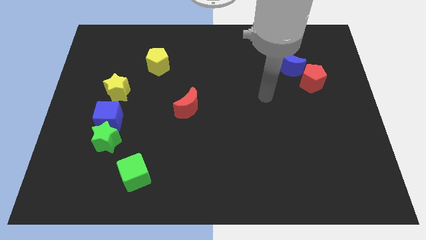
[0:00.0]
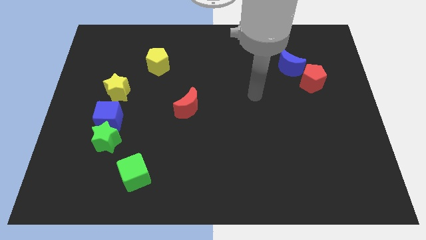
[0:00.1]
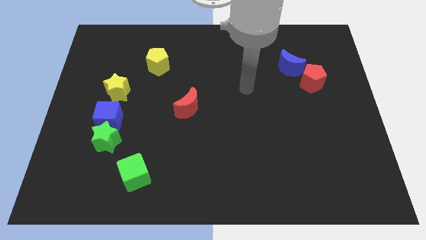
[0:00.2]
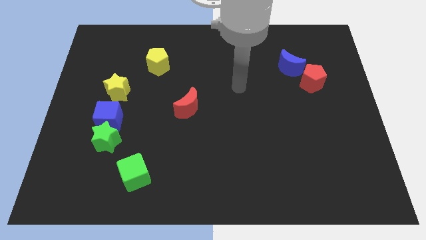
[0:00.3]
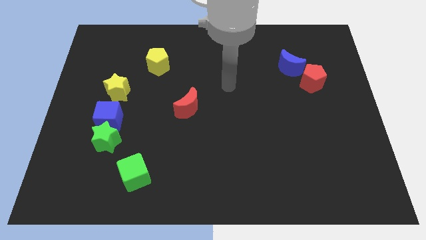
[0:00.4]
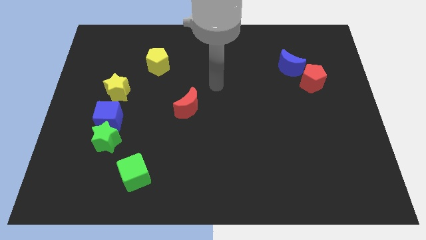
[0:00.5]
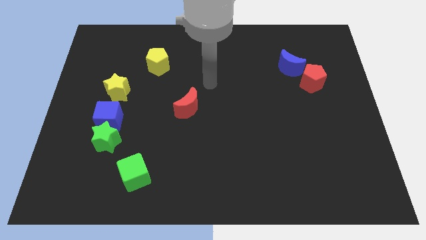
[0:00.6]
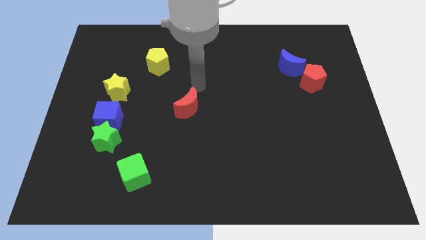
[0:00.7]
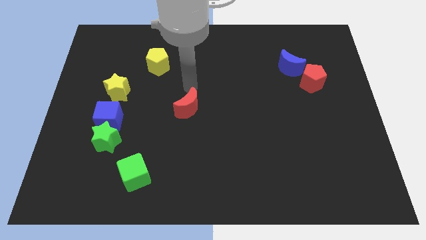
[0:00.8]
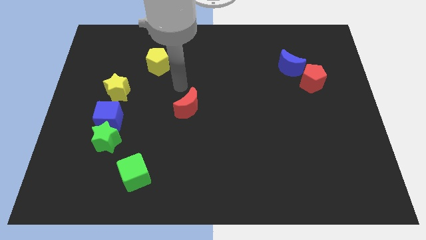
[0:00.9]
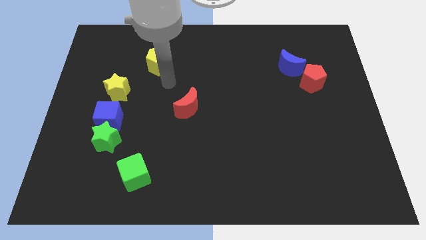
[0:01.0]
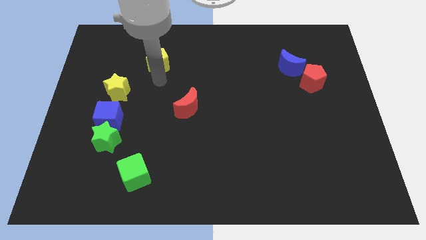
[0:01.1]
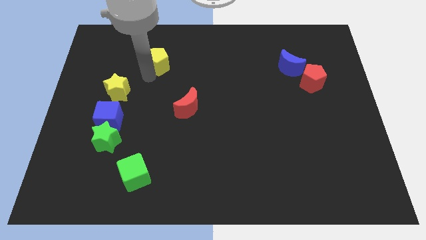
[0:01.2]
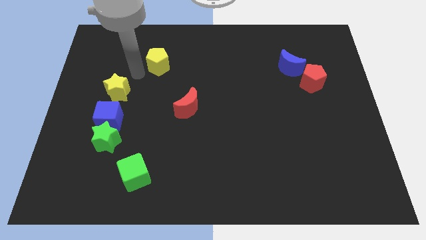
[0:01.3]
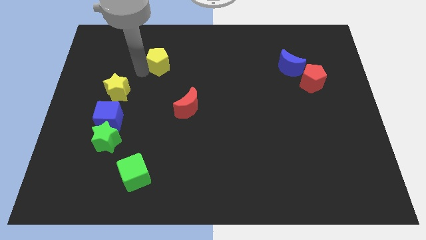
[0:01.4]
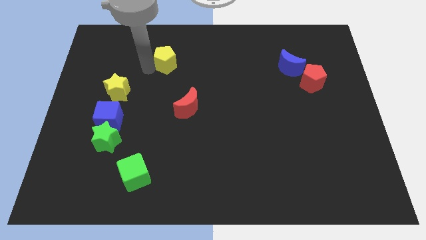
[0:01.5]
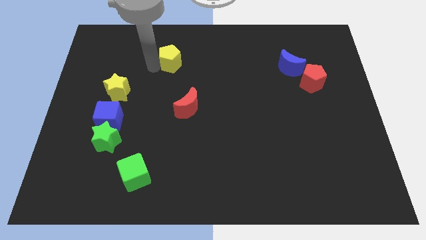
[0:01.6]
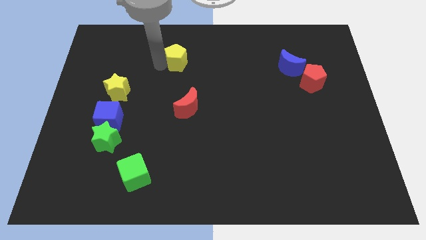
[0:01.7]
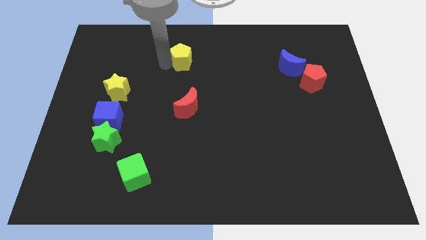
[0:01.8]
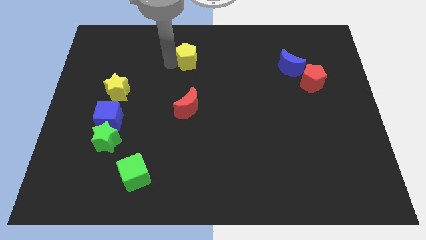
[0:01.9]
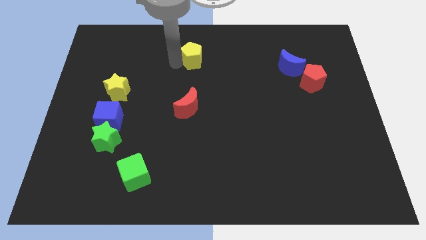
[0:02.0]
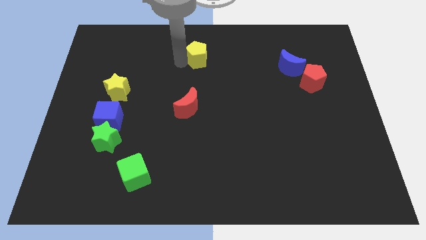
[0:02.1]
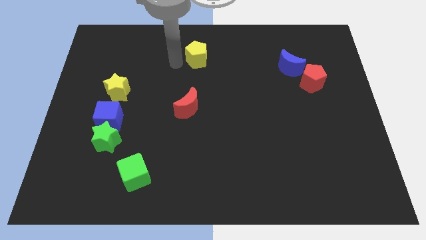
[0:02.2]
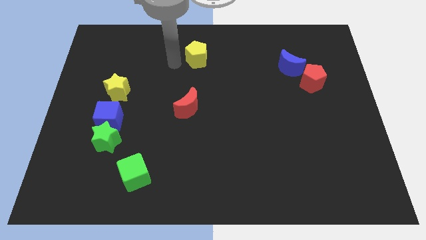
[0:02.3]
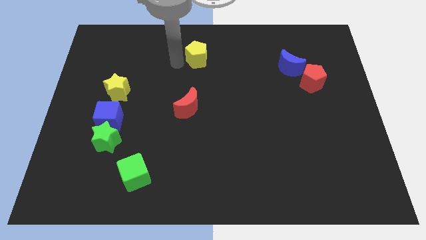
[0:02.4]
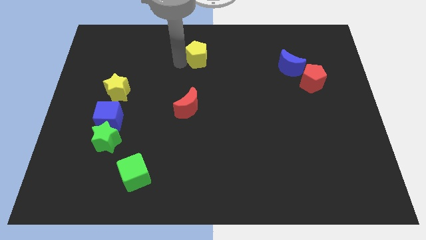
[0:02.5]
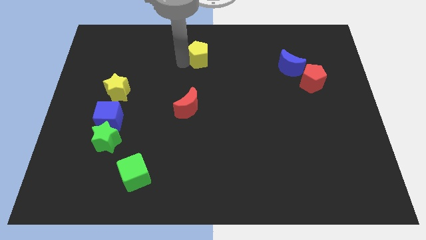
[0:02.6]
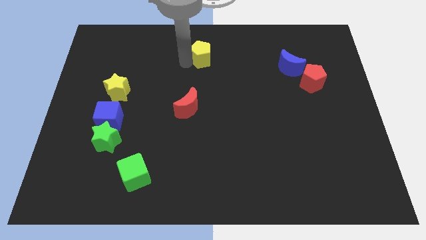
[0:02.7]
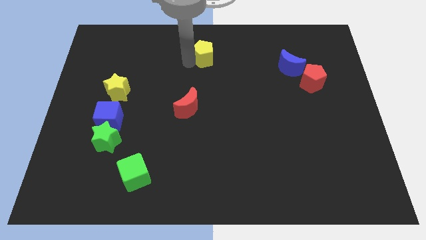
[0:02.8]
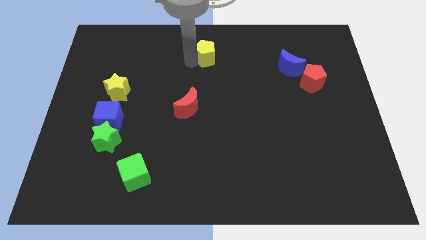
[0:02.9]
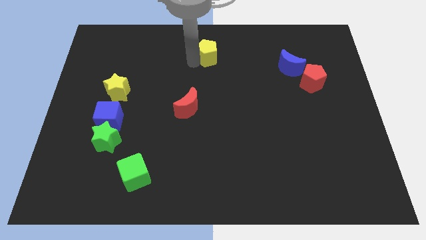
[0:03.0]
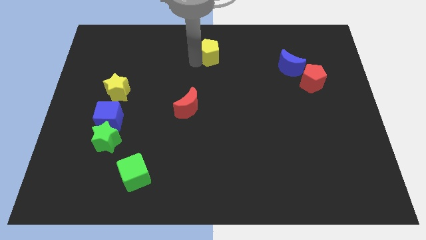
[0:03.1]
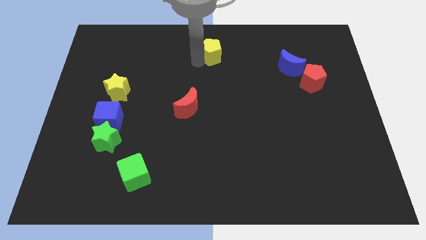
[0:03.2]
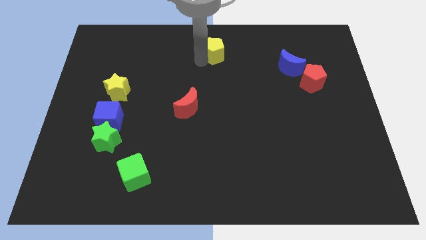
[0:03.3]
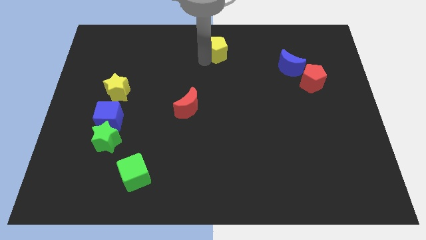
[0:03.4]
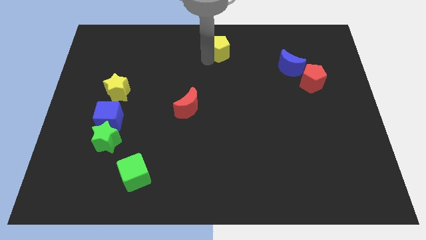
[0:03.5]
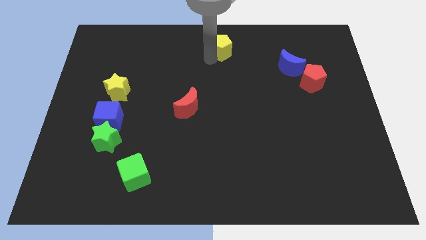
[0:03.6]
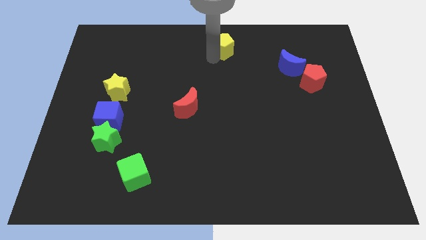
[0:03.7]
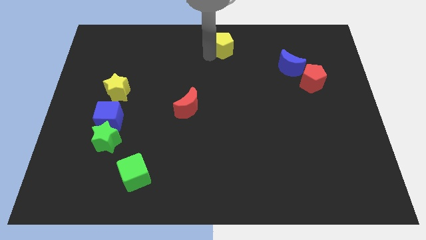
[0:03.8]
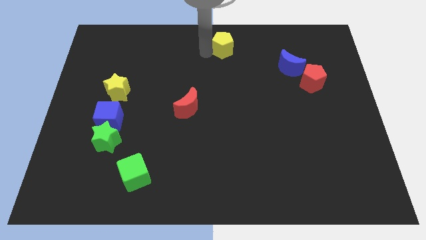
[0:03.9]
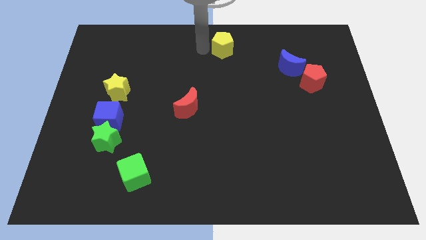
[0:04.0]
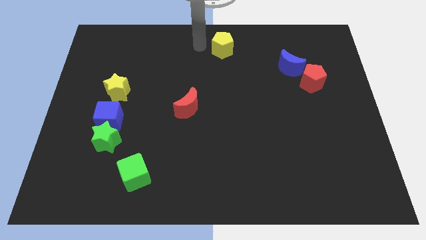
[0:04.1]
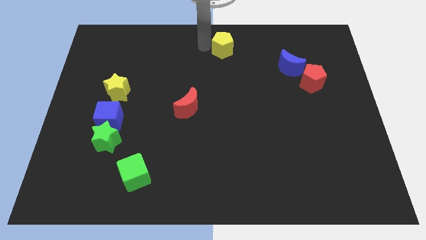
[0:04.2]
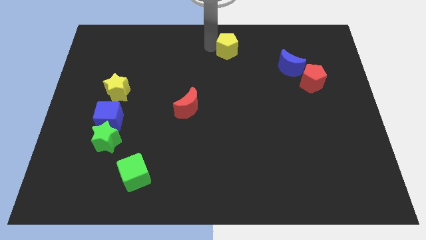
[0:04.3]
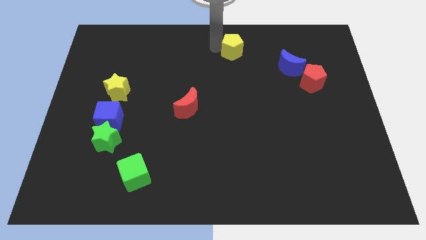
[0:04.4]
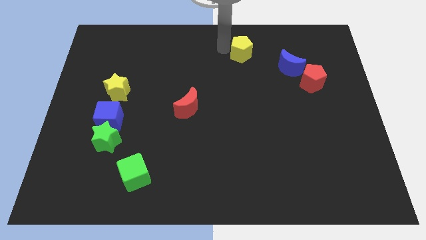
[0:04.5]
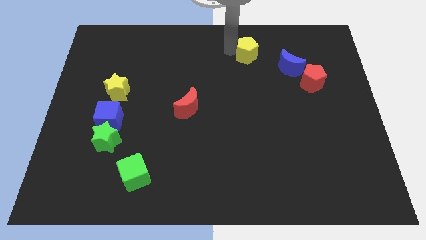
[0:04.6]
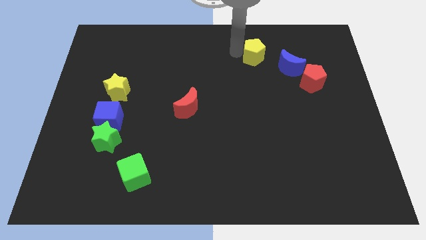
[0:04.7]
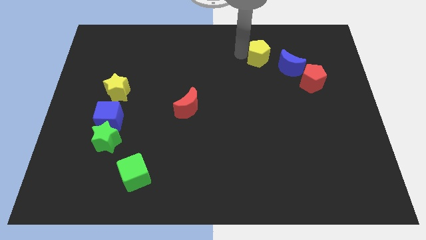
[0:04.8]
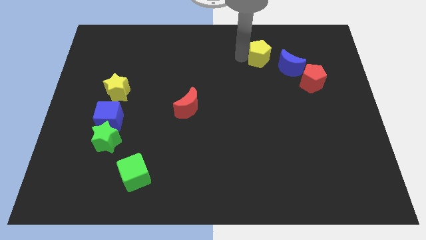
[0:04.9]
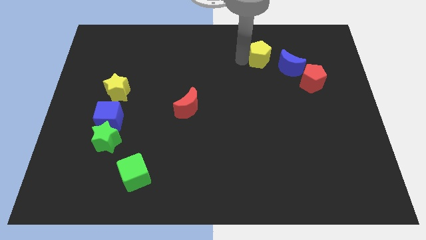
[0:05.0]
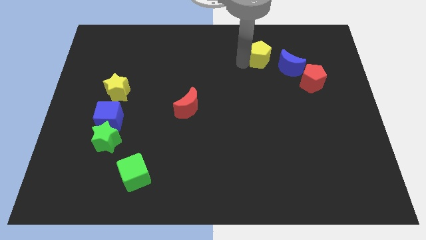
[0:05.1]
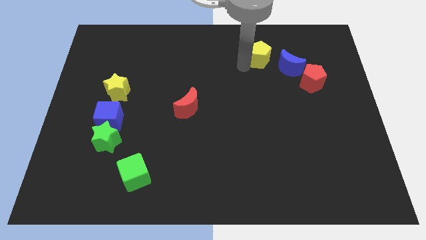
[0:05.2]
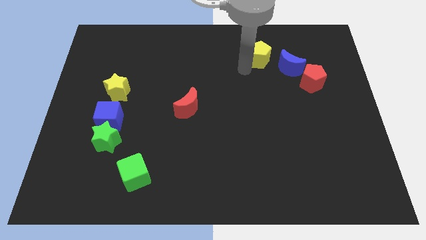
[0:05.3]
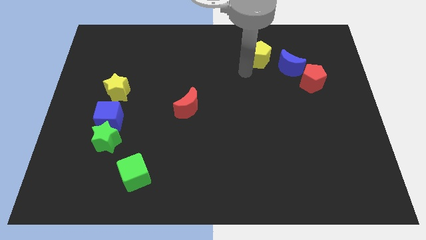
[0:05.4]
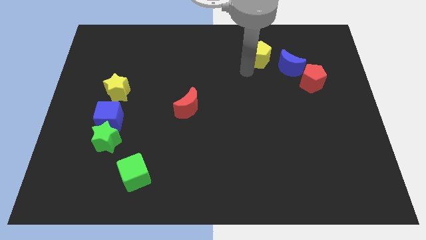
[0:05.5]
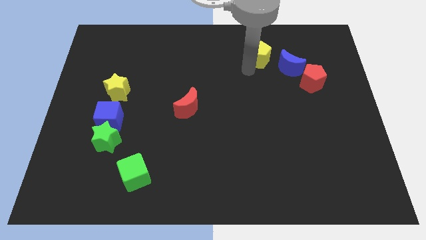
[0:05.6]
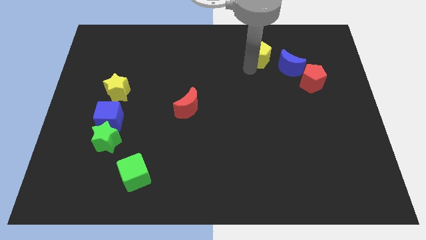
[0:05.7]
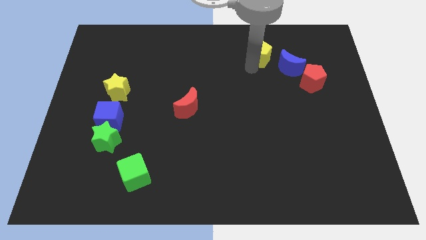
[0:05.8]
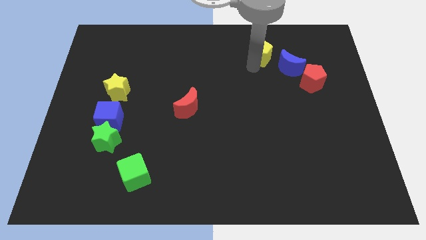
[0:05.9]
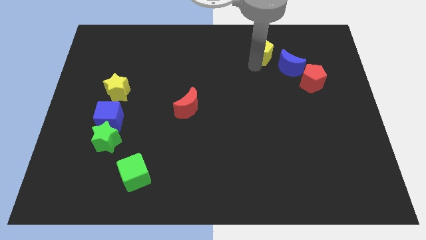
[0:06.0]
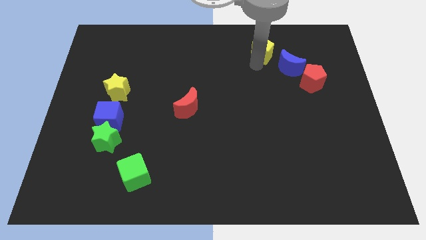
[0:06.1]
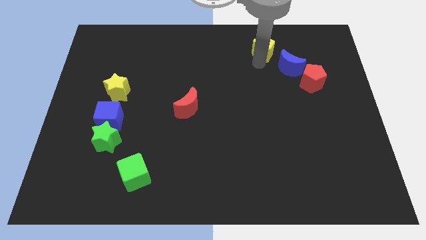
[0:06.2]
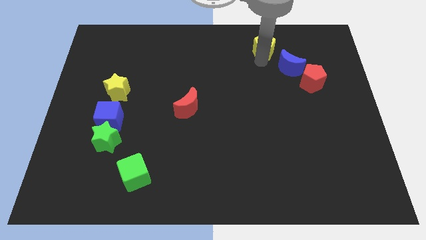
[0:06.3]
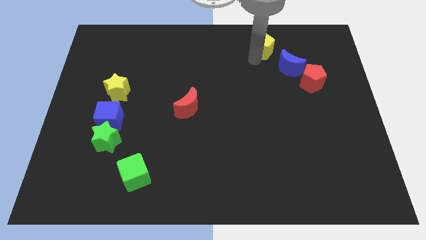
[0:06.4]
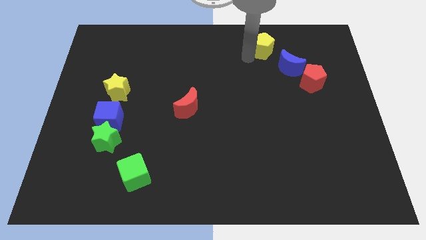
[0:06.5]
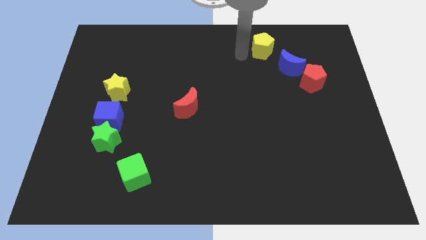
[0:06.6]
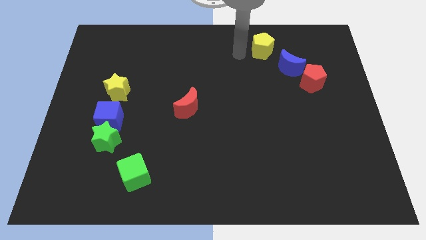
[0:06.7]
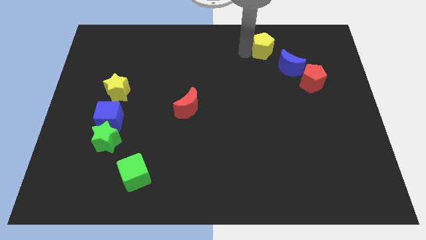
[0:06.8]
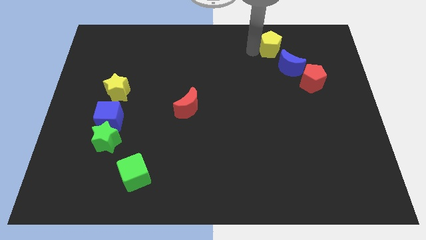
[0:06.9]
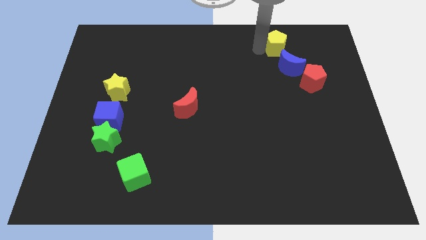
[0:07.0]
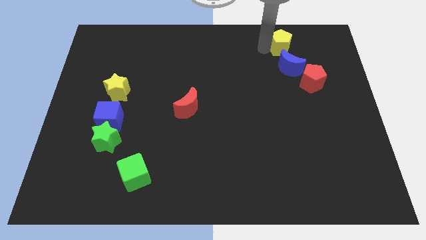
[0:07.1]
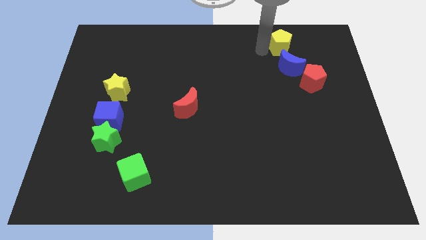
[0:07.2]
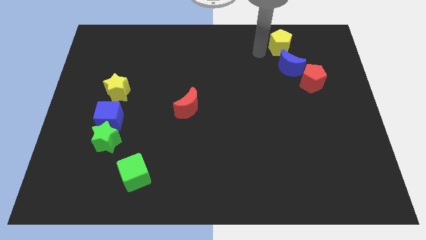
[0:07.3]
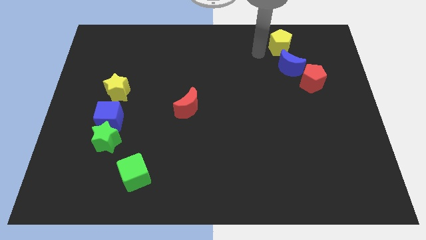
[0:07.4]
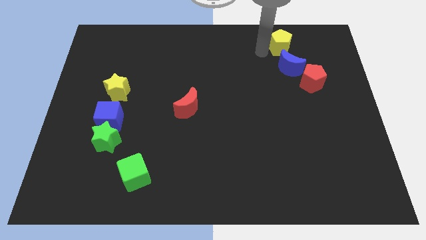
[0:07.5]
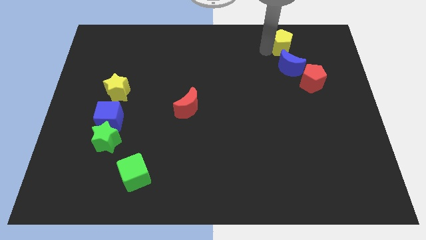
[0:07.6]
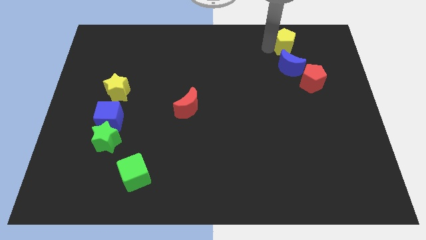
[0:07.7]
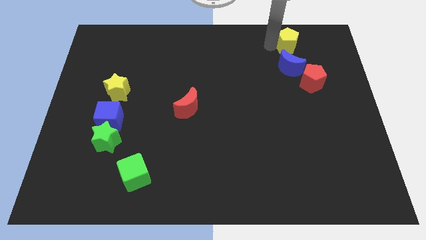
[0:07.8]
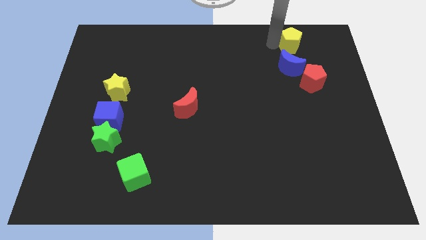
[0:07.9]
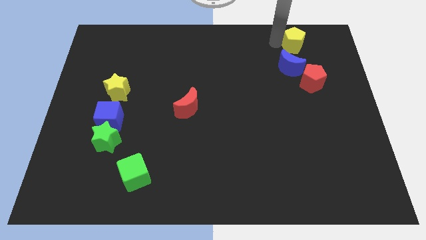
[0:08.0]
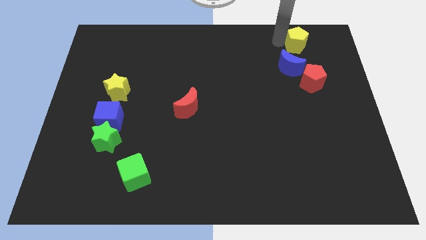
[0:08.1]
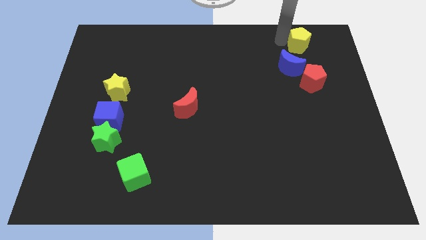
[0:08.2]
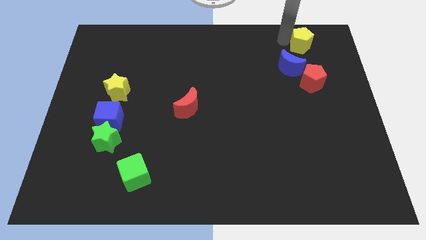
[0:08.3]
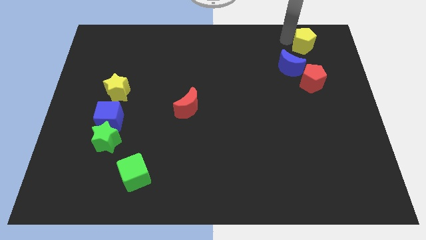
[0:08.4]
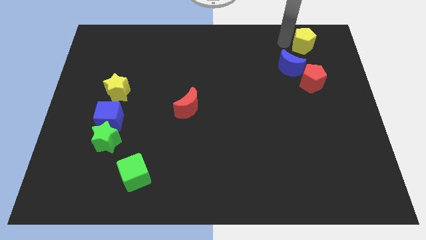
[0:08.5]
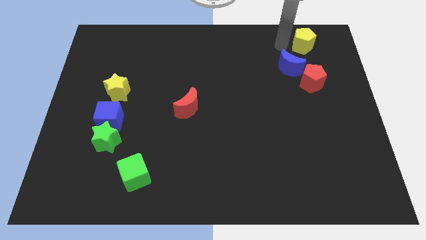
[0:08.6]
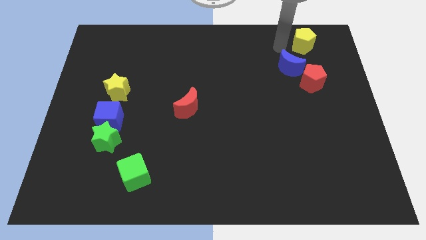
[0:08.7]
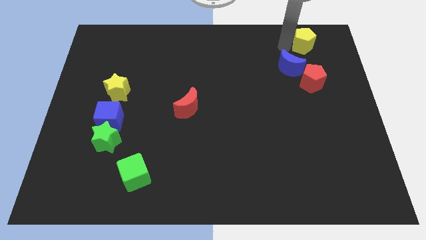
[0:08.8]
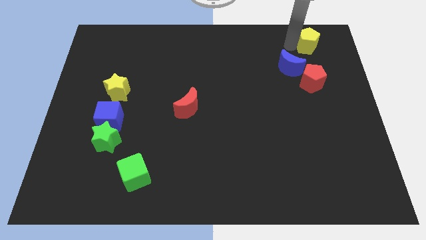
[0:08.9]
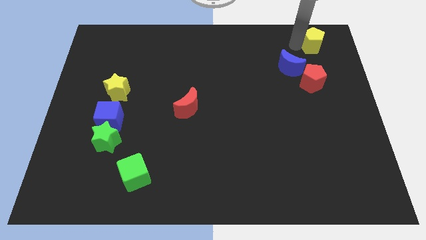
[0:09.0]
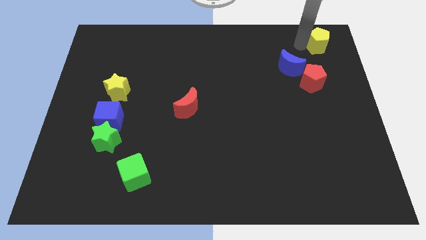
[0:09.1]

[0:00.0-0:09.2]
slide the yellow pentagon to the top right of the board
